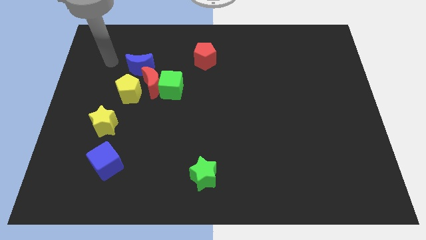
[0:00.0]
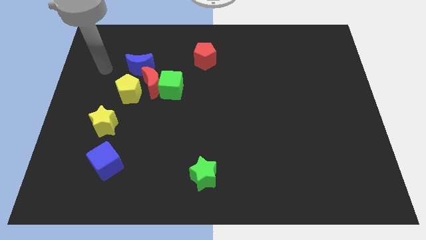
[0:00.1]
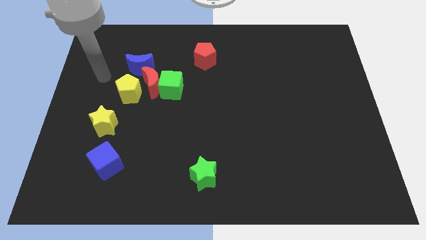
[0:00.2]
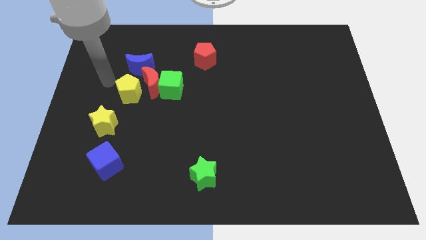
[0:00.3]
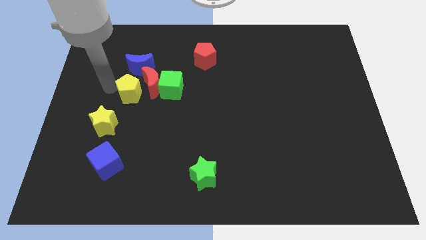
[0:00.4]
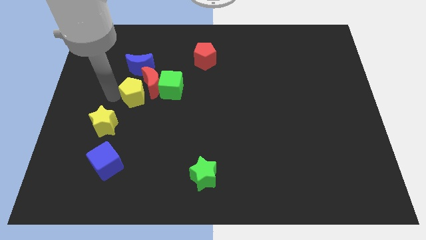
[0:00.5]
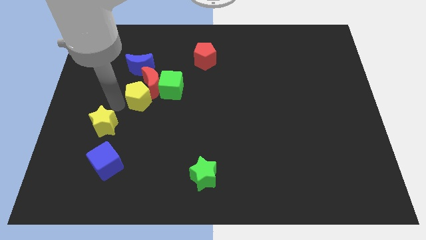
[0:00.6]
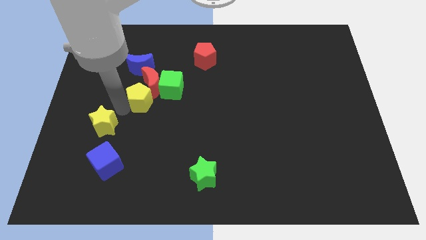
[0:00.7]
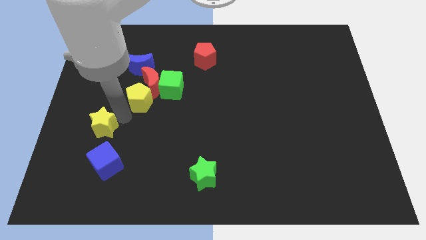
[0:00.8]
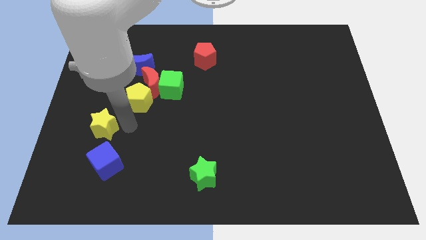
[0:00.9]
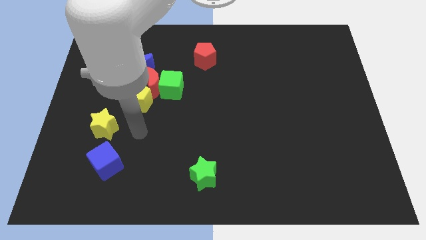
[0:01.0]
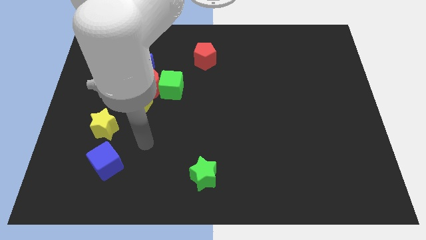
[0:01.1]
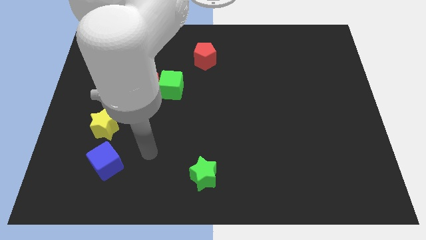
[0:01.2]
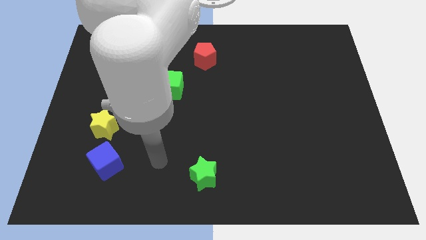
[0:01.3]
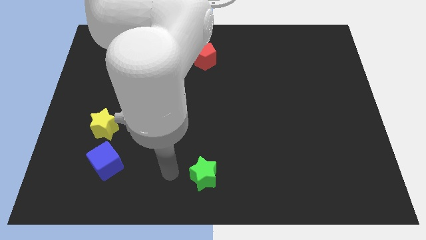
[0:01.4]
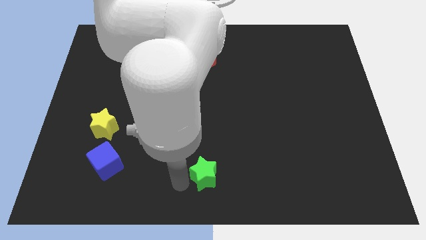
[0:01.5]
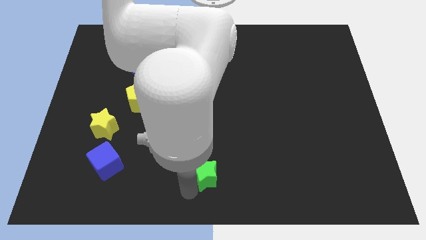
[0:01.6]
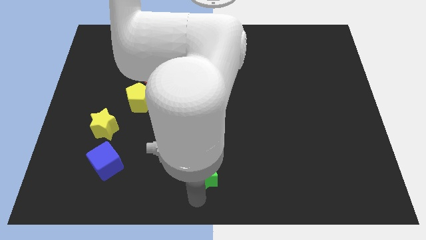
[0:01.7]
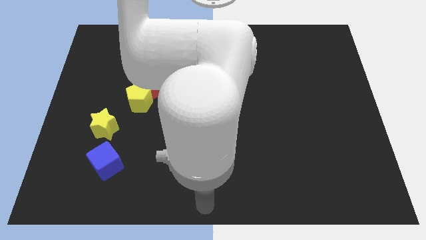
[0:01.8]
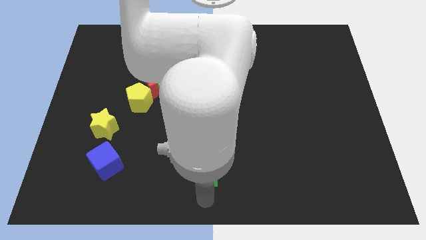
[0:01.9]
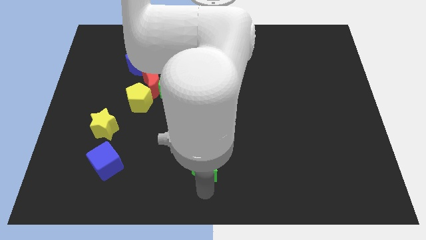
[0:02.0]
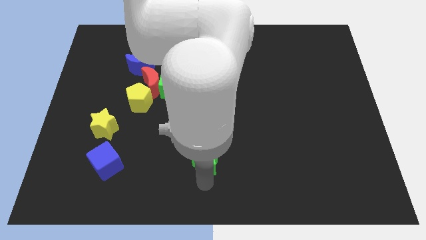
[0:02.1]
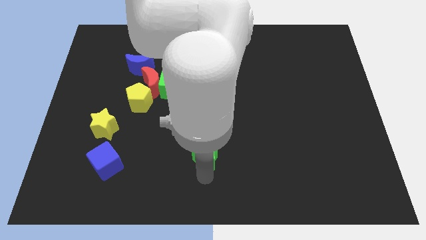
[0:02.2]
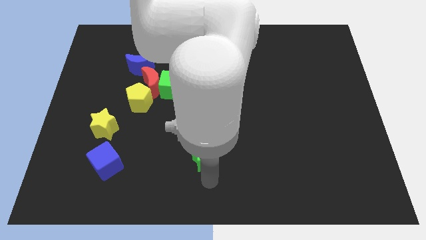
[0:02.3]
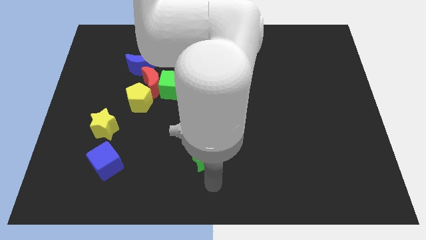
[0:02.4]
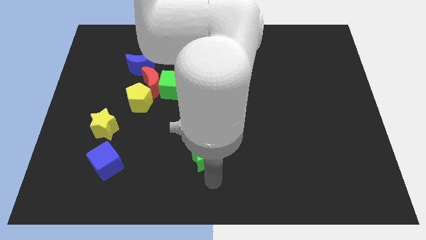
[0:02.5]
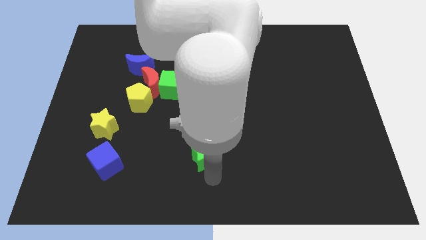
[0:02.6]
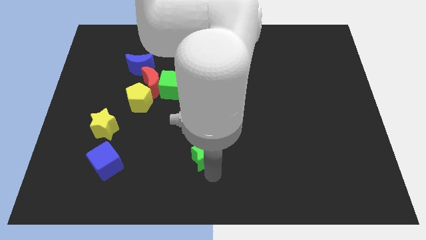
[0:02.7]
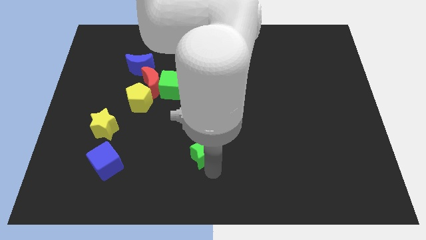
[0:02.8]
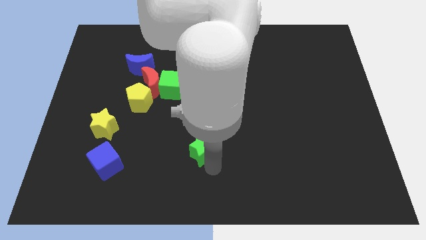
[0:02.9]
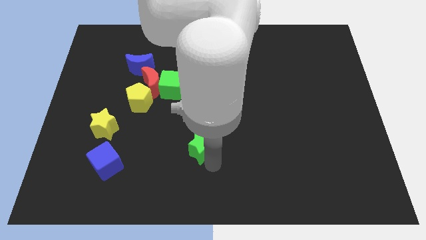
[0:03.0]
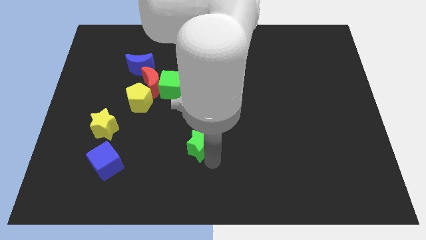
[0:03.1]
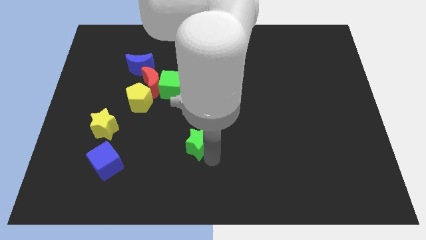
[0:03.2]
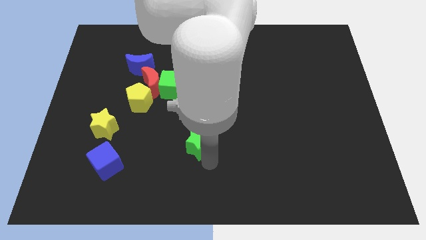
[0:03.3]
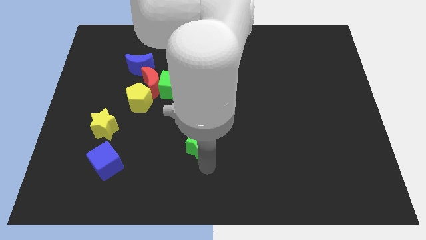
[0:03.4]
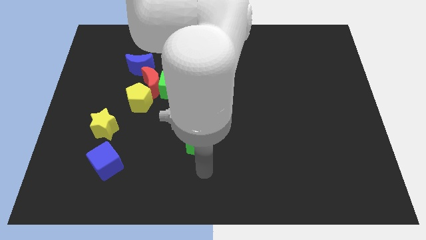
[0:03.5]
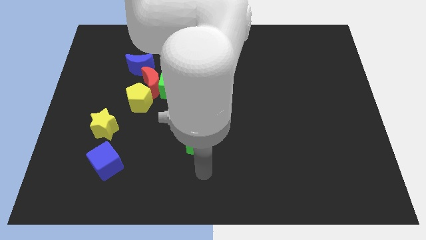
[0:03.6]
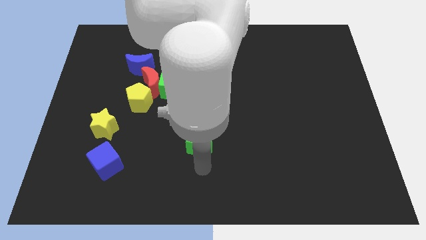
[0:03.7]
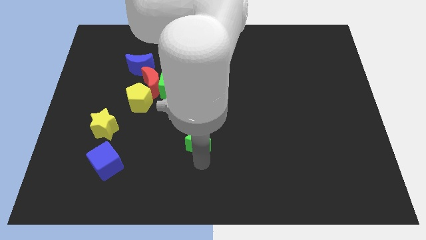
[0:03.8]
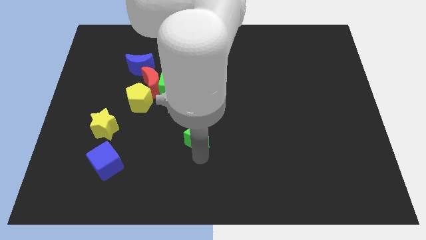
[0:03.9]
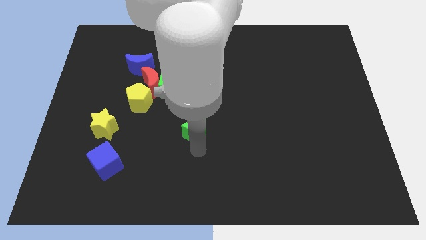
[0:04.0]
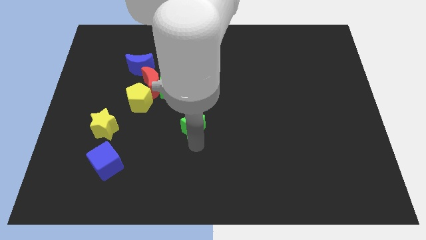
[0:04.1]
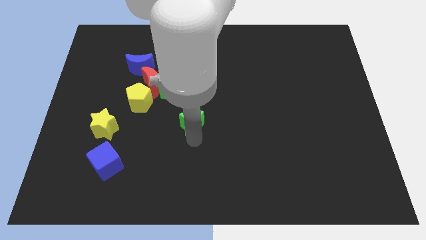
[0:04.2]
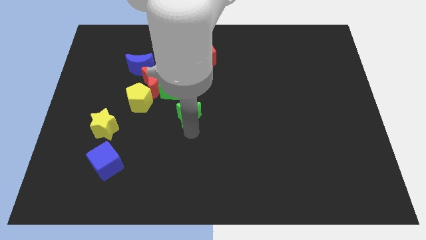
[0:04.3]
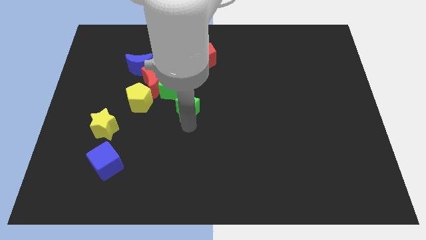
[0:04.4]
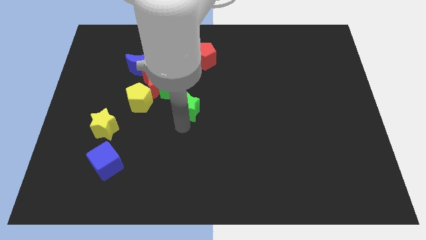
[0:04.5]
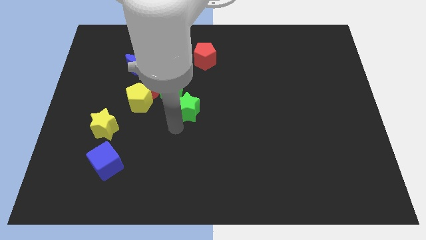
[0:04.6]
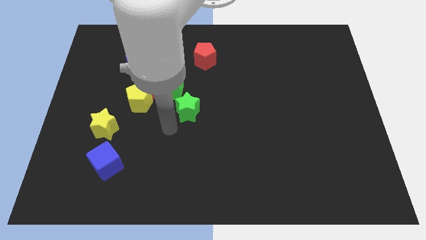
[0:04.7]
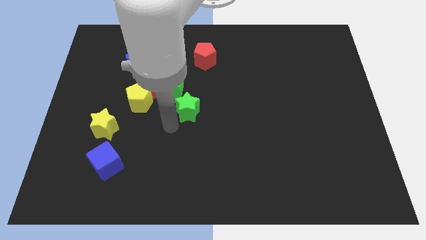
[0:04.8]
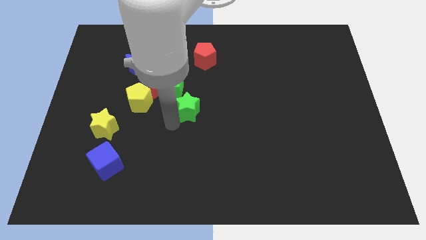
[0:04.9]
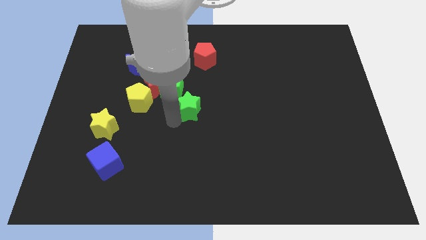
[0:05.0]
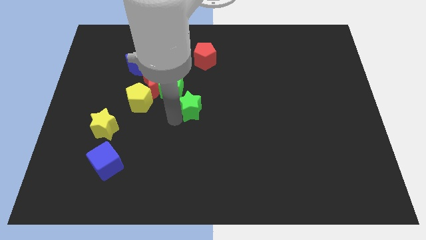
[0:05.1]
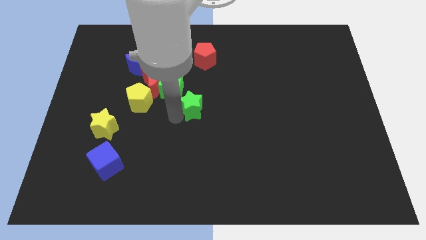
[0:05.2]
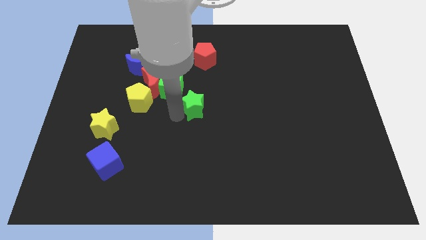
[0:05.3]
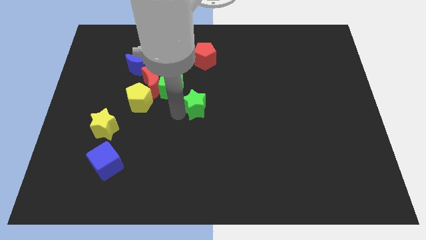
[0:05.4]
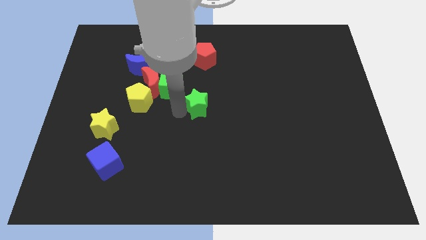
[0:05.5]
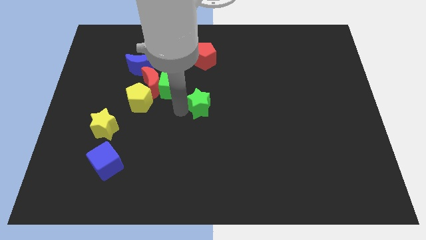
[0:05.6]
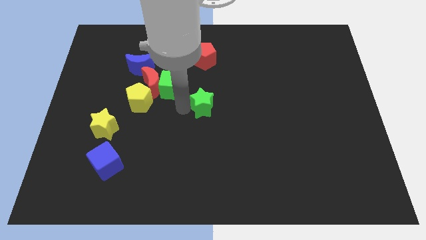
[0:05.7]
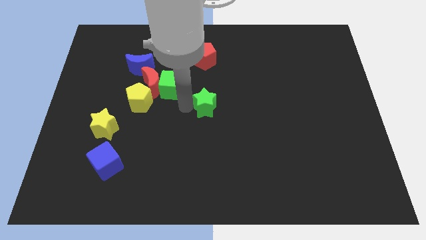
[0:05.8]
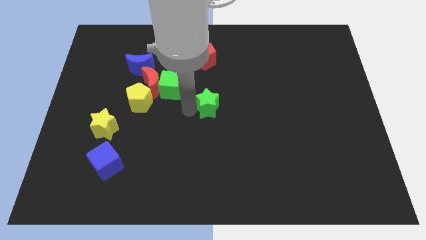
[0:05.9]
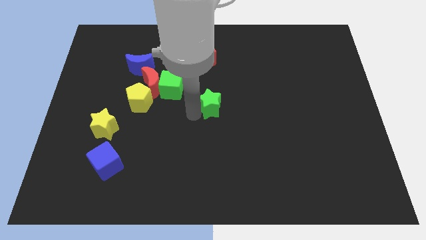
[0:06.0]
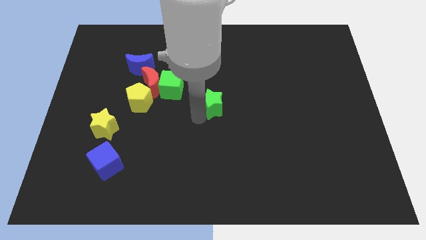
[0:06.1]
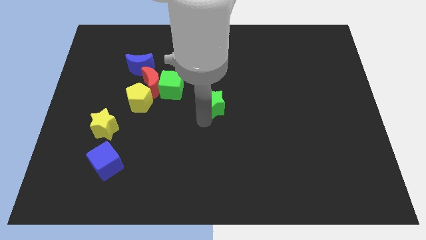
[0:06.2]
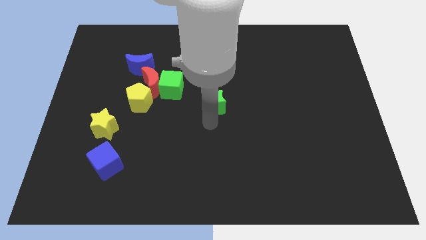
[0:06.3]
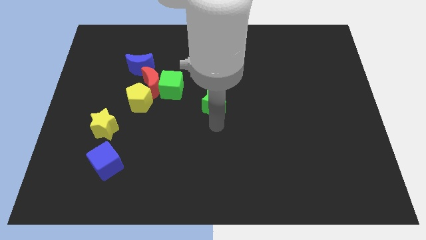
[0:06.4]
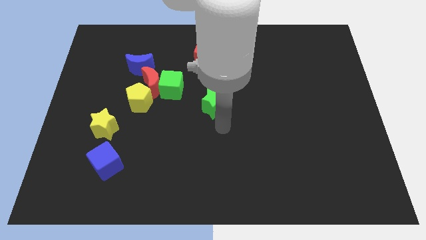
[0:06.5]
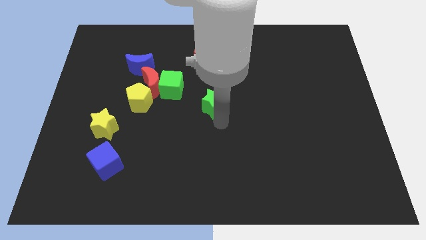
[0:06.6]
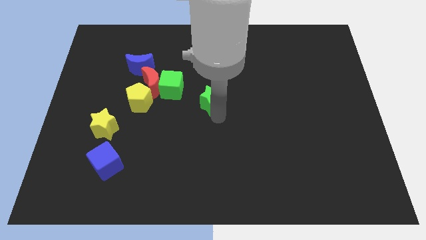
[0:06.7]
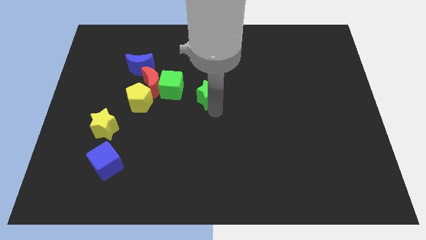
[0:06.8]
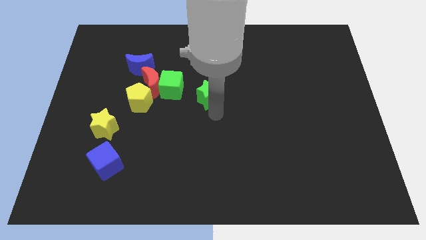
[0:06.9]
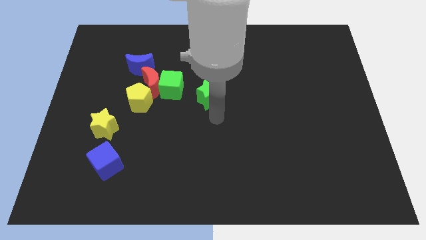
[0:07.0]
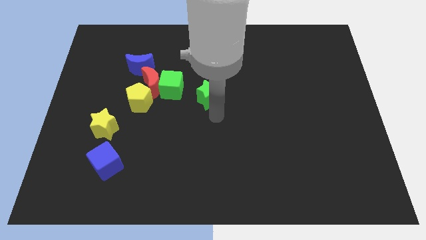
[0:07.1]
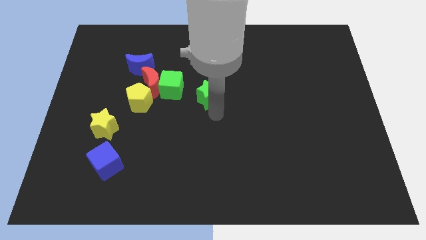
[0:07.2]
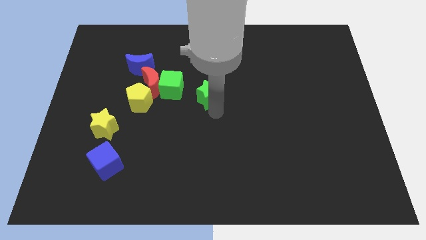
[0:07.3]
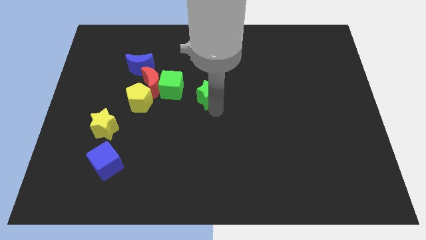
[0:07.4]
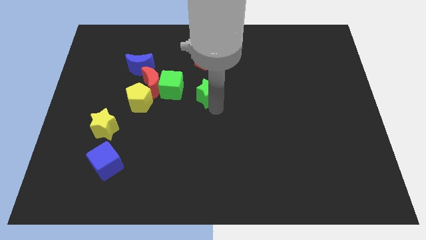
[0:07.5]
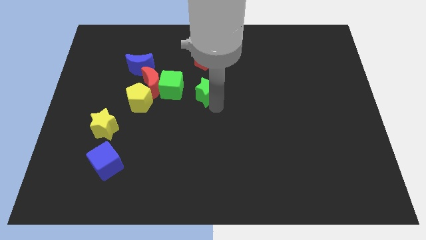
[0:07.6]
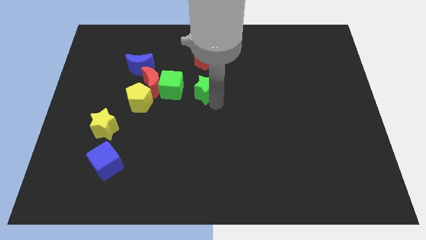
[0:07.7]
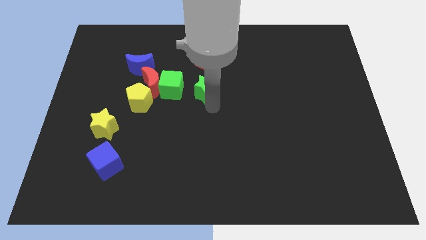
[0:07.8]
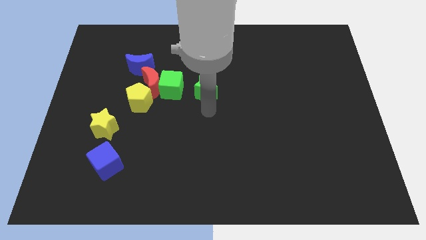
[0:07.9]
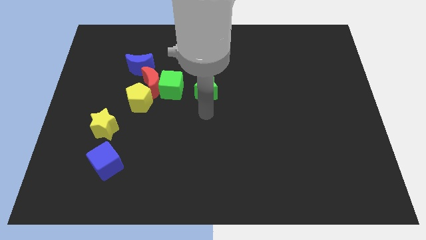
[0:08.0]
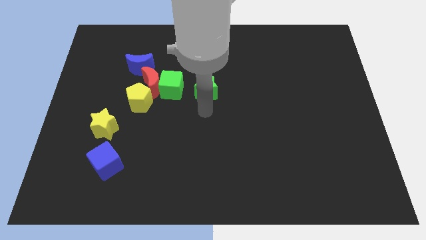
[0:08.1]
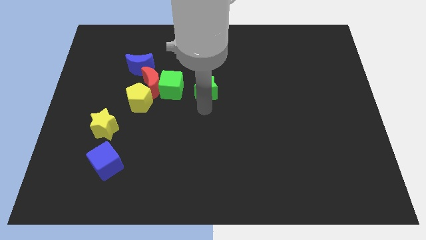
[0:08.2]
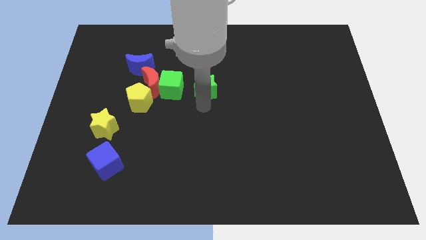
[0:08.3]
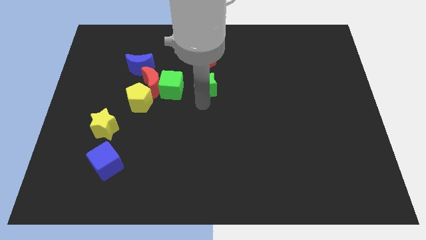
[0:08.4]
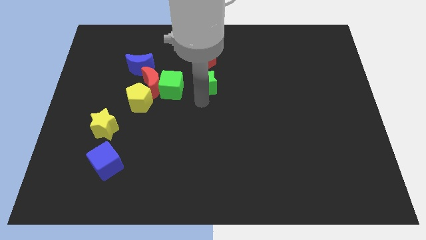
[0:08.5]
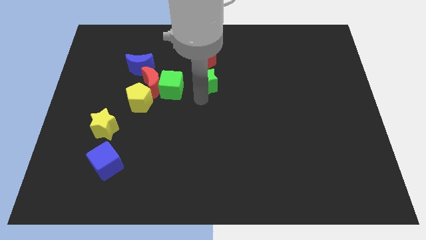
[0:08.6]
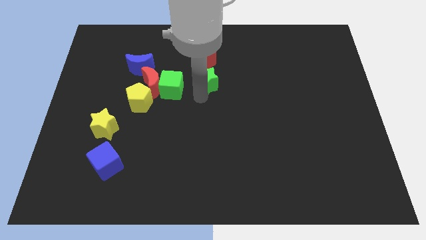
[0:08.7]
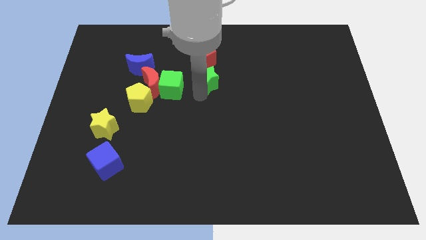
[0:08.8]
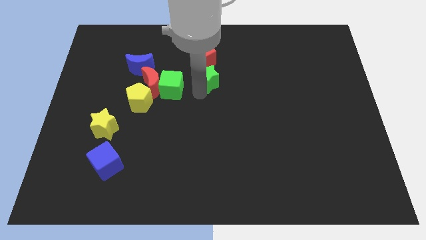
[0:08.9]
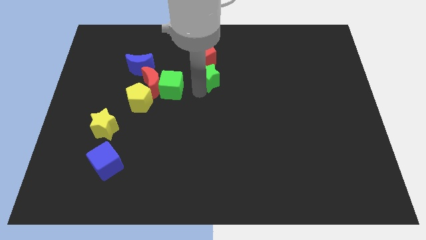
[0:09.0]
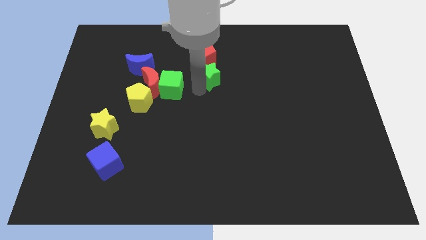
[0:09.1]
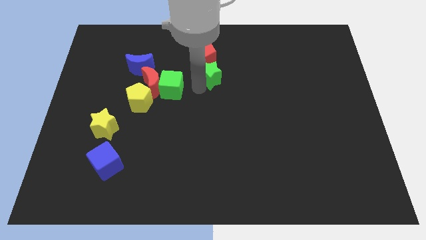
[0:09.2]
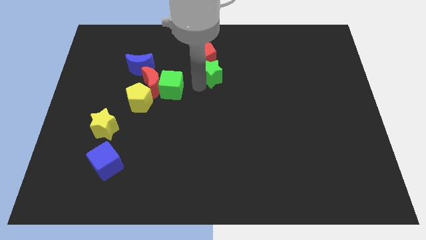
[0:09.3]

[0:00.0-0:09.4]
slide the green star towards the red pentagon
